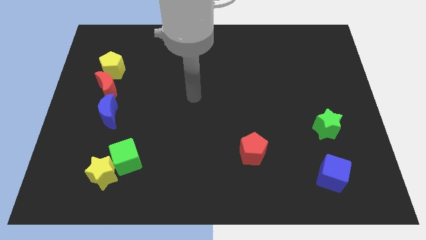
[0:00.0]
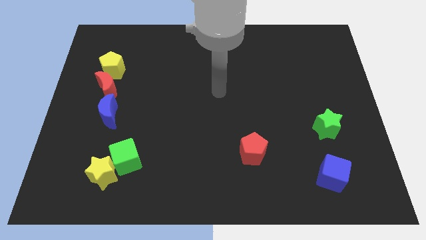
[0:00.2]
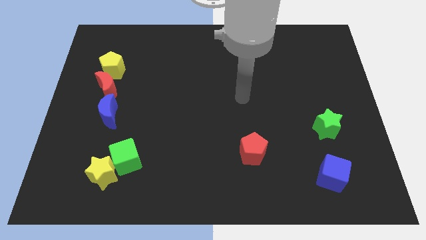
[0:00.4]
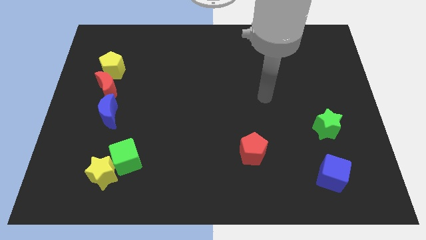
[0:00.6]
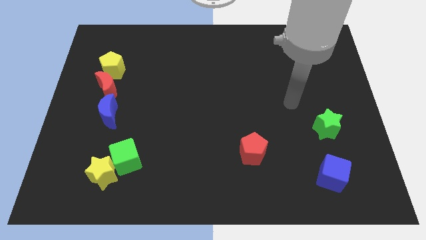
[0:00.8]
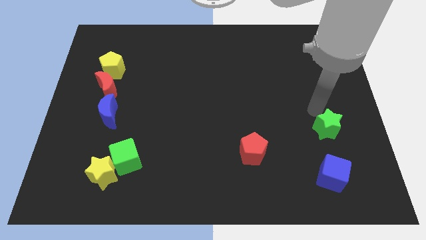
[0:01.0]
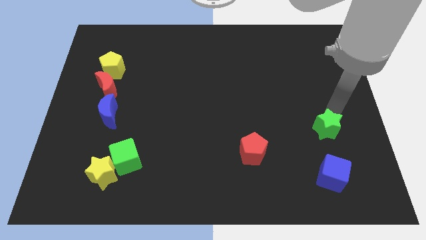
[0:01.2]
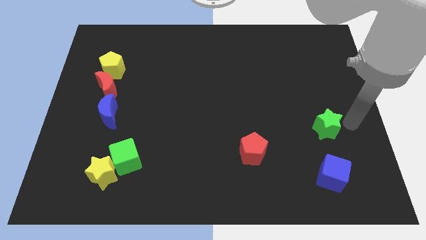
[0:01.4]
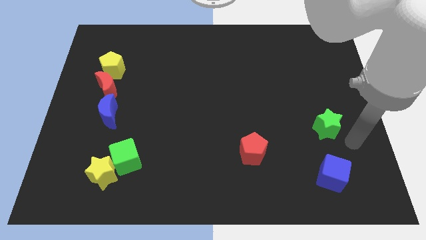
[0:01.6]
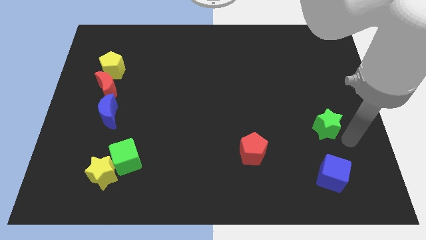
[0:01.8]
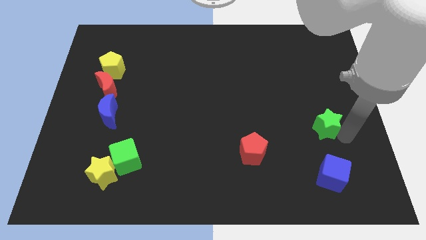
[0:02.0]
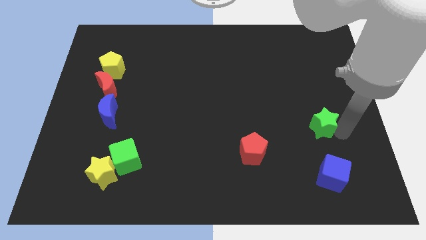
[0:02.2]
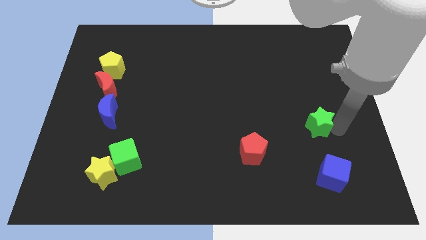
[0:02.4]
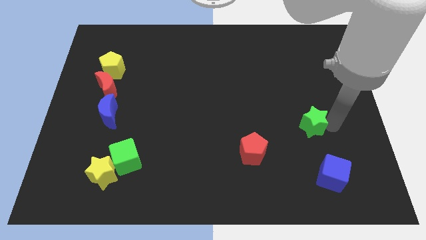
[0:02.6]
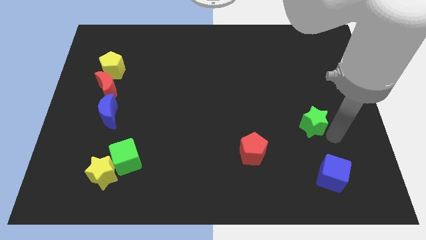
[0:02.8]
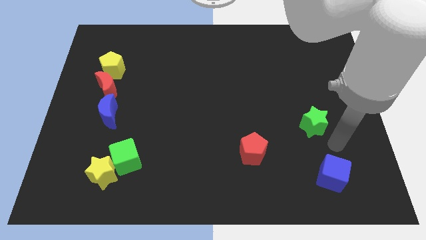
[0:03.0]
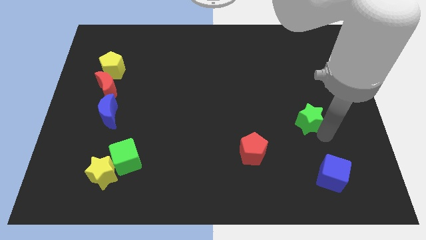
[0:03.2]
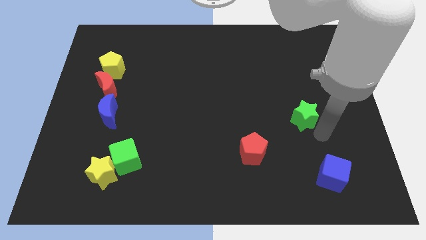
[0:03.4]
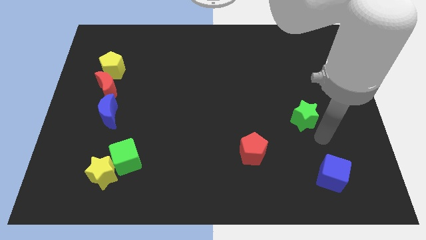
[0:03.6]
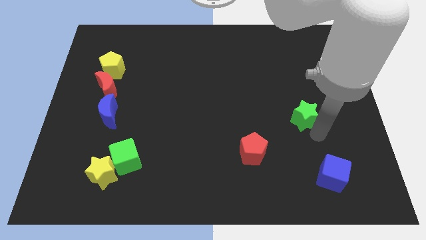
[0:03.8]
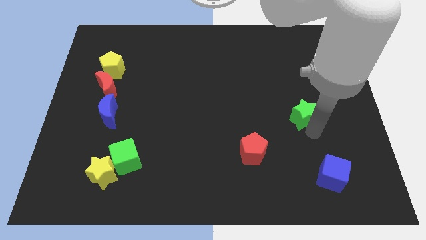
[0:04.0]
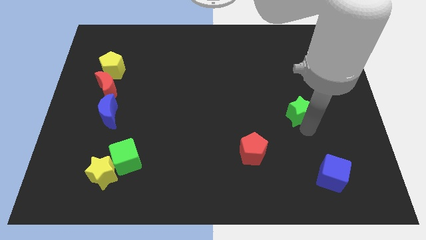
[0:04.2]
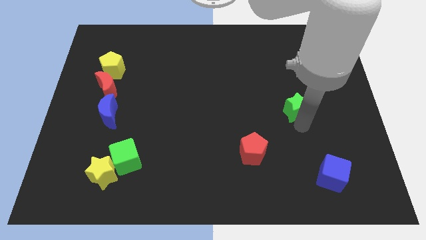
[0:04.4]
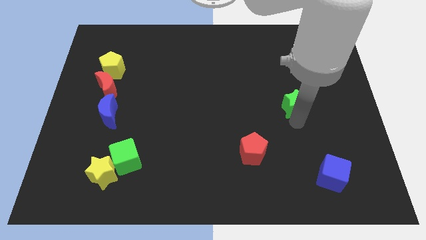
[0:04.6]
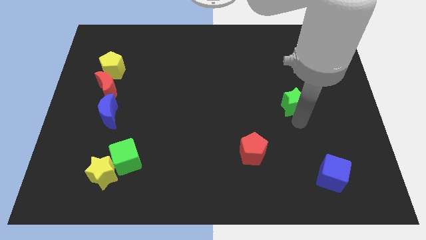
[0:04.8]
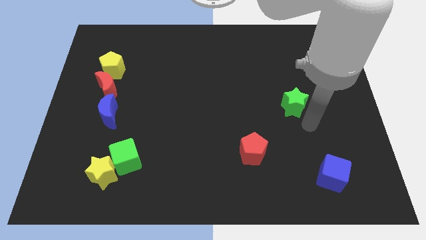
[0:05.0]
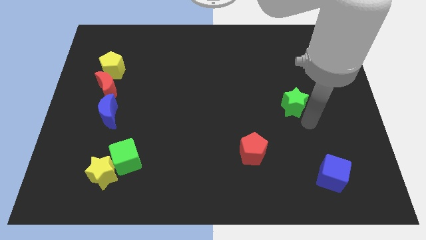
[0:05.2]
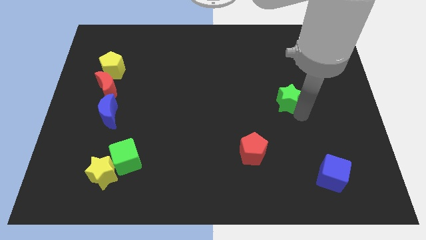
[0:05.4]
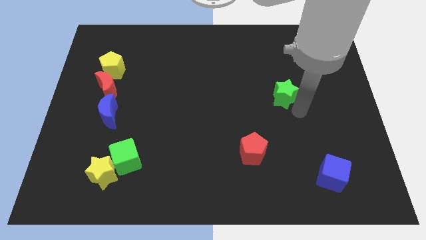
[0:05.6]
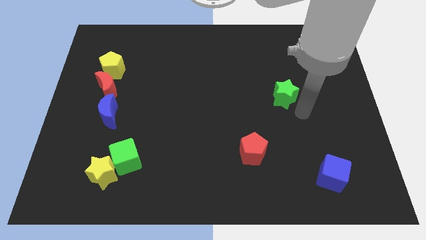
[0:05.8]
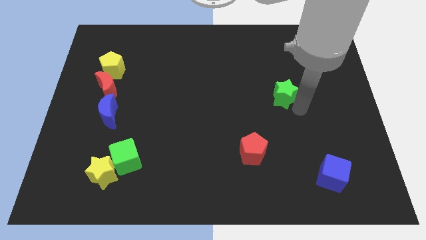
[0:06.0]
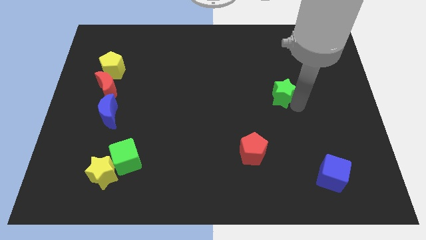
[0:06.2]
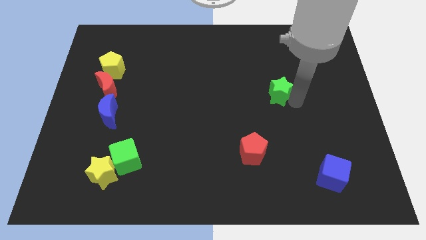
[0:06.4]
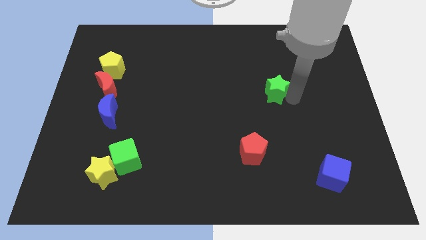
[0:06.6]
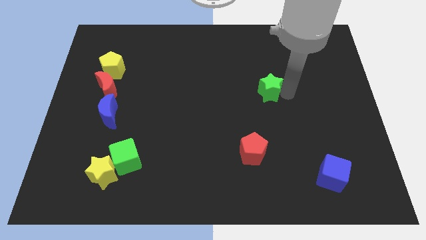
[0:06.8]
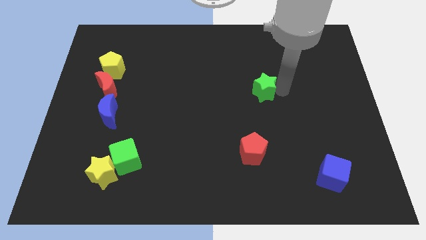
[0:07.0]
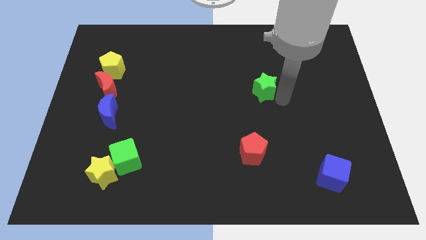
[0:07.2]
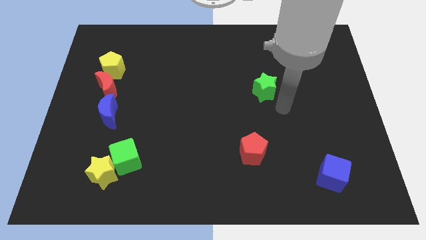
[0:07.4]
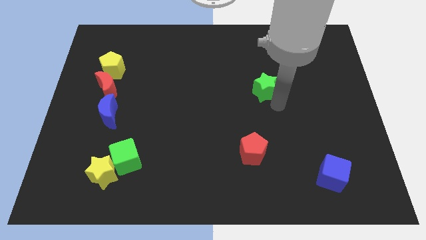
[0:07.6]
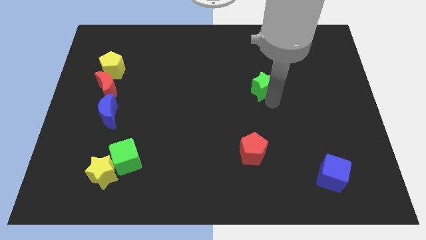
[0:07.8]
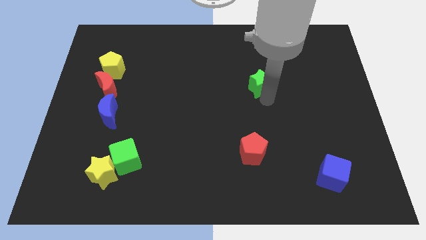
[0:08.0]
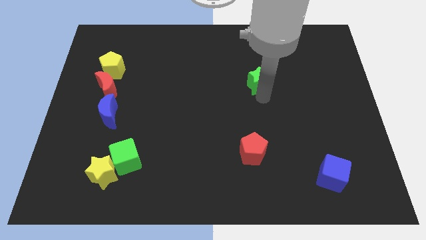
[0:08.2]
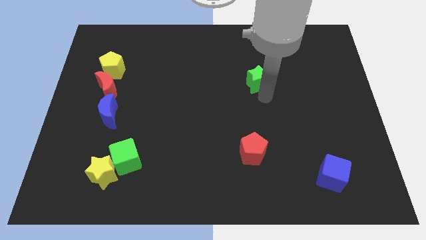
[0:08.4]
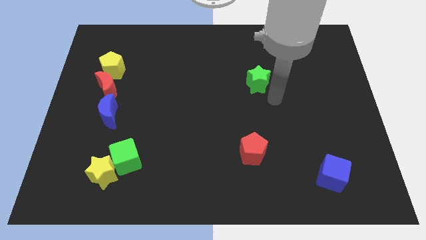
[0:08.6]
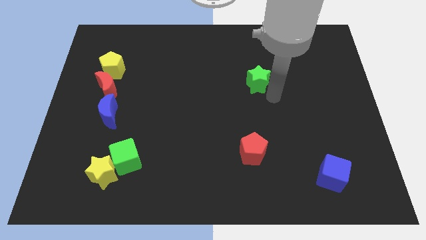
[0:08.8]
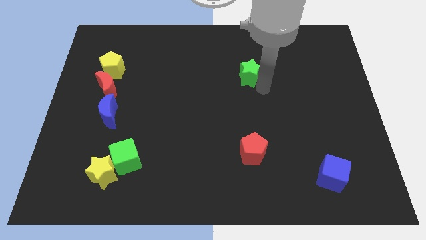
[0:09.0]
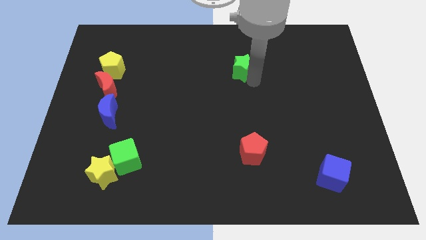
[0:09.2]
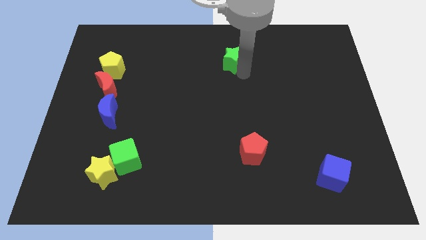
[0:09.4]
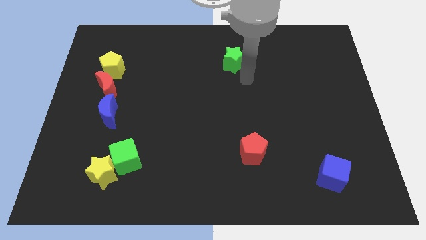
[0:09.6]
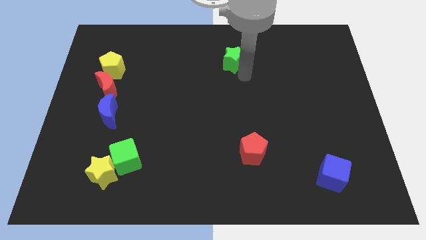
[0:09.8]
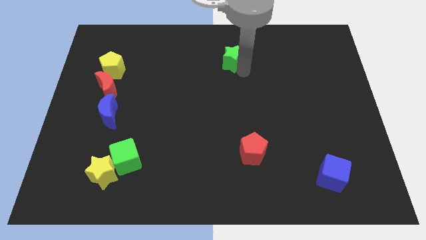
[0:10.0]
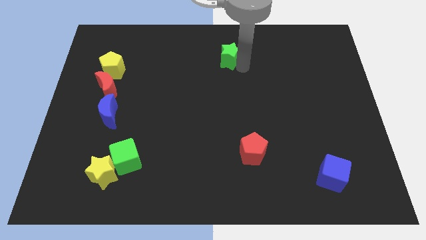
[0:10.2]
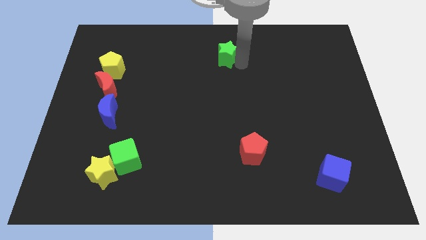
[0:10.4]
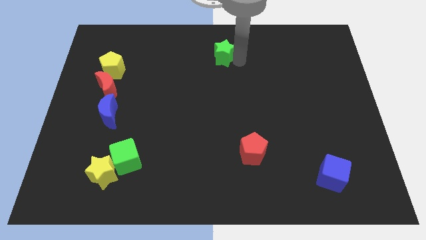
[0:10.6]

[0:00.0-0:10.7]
move the green star to the towards your base

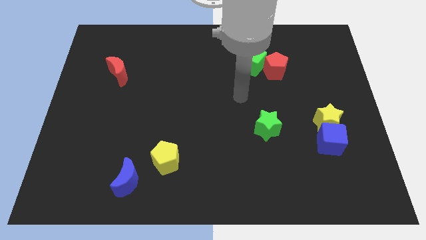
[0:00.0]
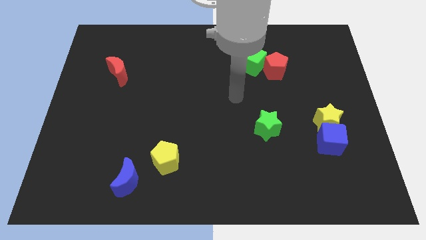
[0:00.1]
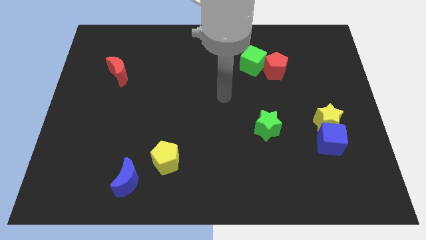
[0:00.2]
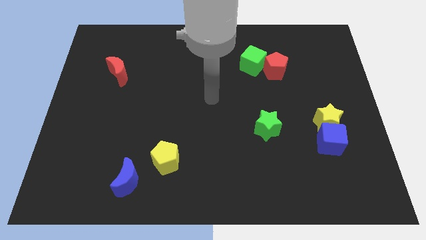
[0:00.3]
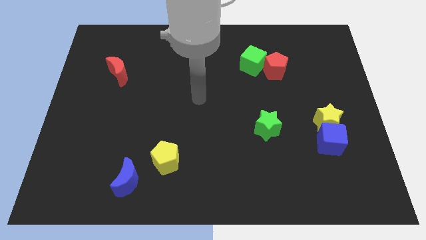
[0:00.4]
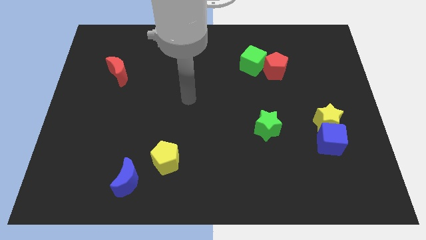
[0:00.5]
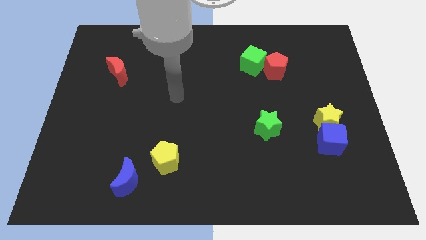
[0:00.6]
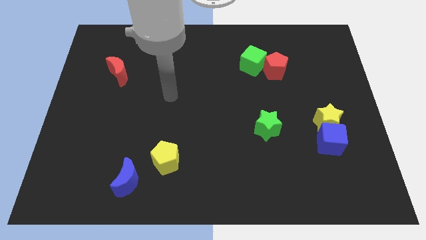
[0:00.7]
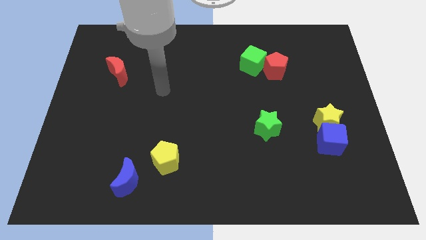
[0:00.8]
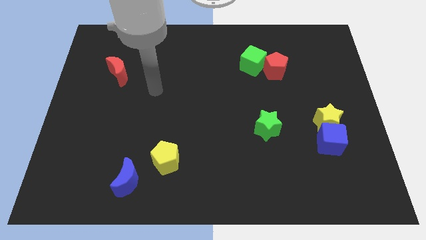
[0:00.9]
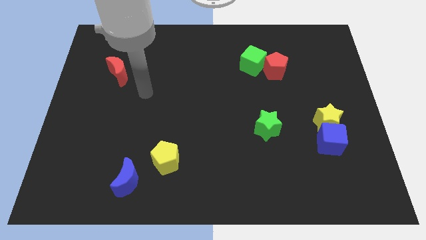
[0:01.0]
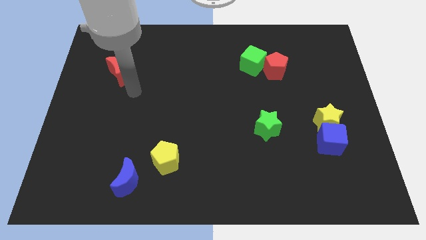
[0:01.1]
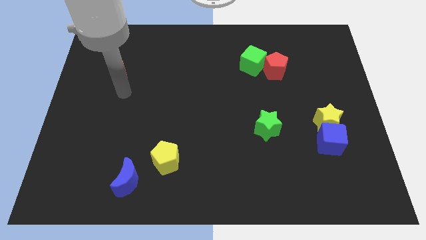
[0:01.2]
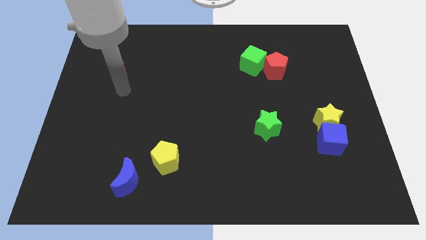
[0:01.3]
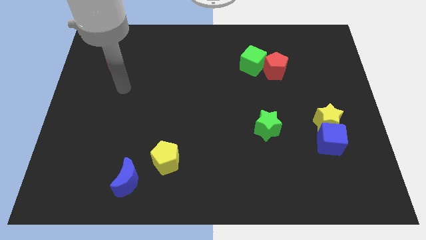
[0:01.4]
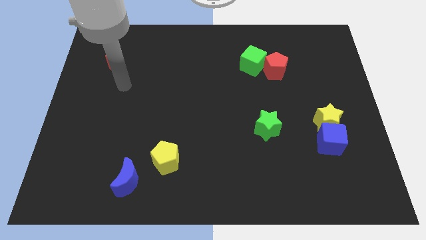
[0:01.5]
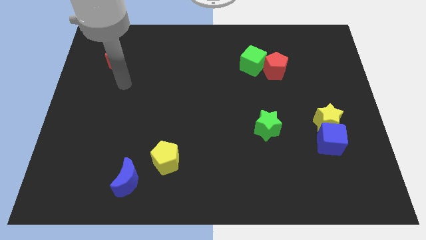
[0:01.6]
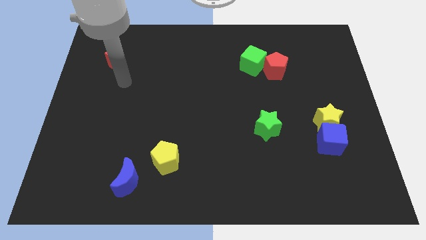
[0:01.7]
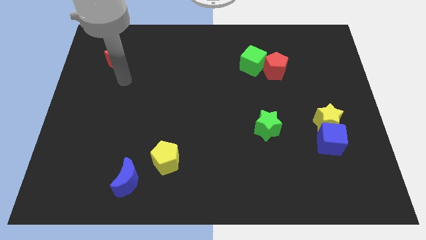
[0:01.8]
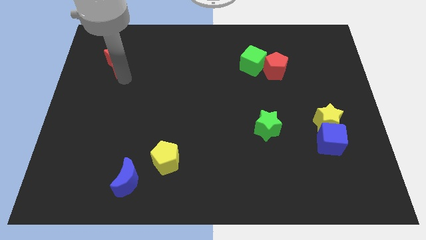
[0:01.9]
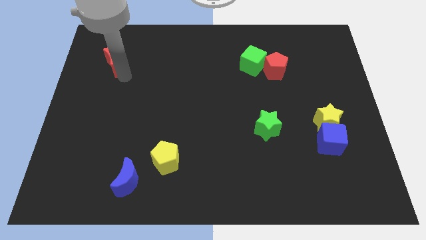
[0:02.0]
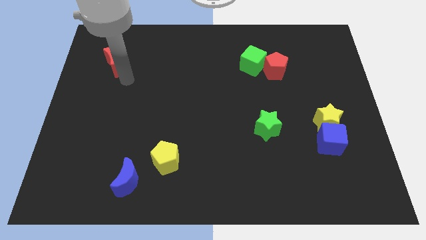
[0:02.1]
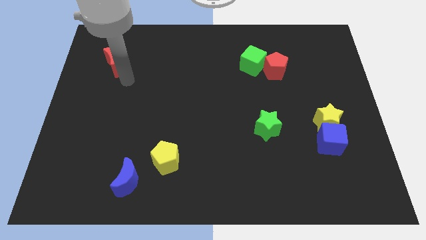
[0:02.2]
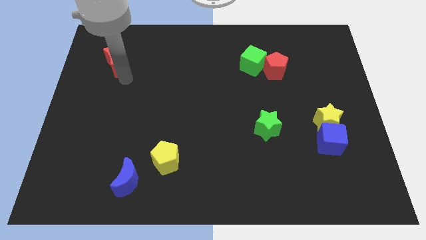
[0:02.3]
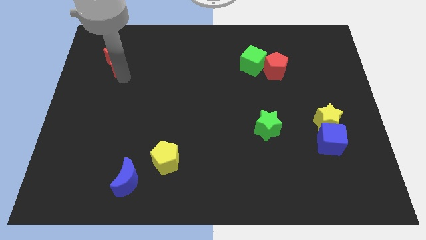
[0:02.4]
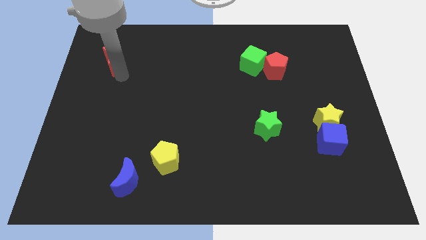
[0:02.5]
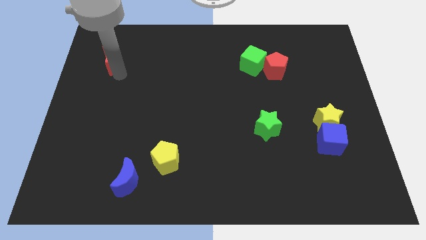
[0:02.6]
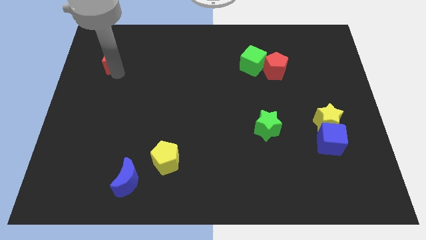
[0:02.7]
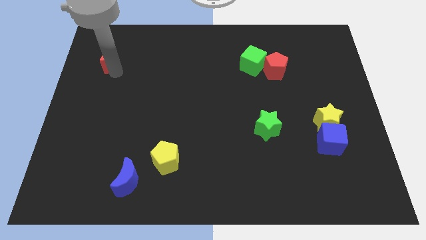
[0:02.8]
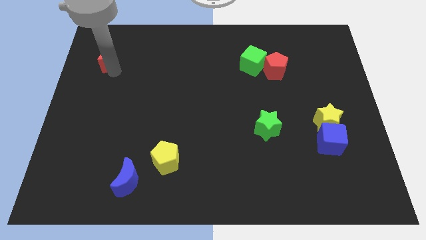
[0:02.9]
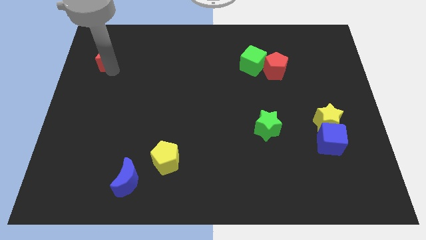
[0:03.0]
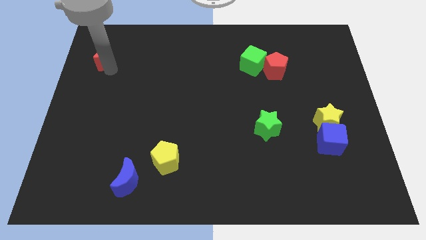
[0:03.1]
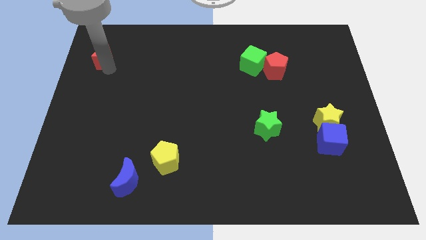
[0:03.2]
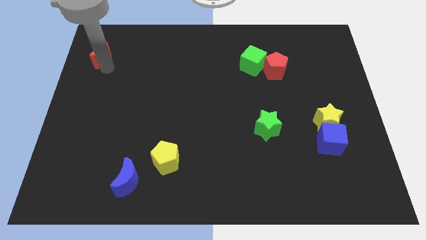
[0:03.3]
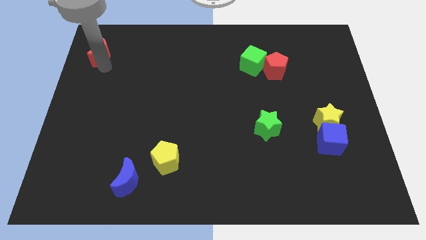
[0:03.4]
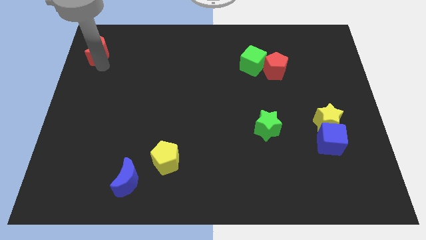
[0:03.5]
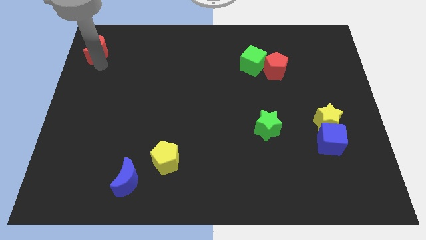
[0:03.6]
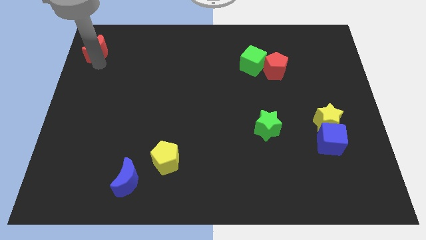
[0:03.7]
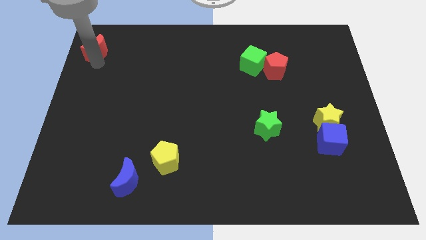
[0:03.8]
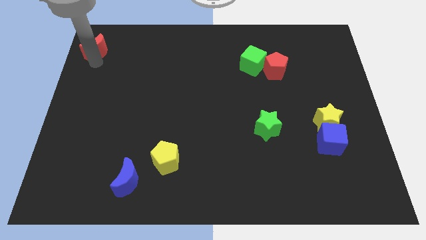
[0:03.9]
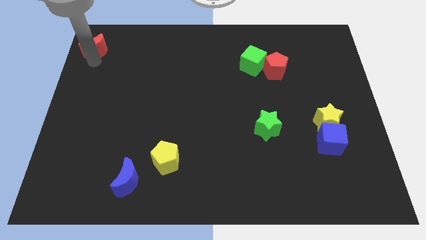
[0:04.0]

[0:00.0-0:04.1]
move the red moon to the upper left corner
